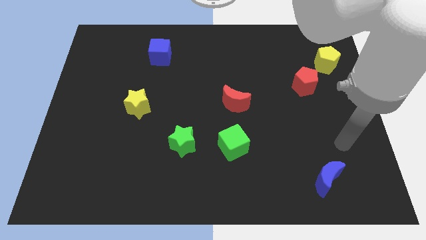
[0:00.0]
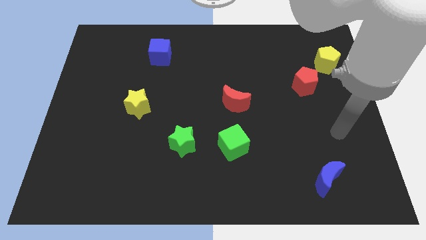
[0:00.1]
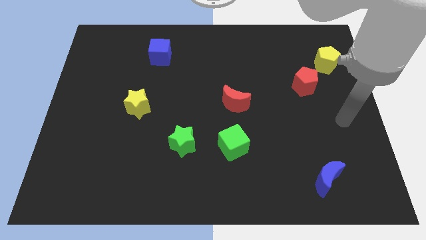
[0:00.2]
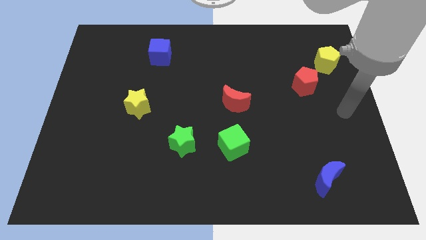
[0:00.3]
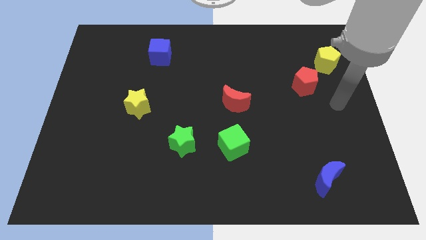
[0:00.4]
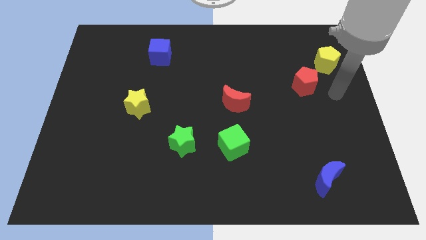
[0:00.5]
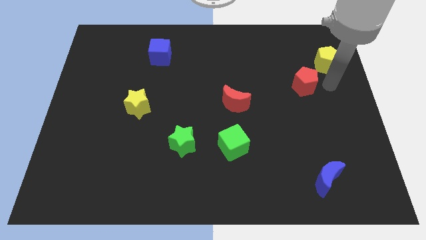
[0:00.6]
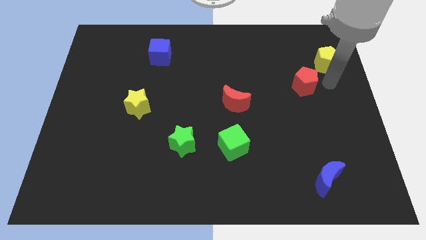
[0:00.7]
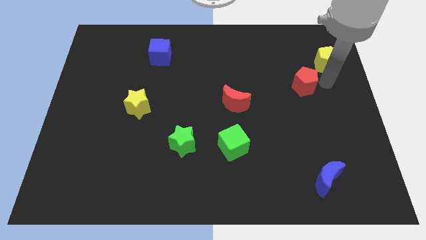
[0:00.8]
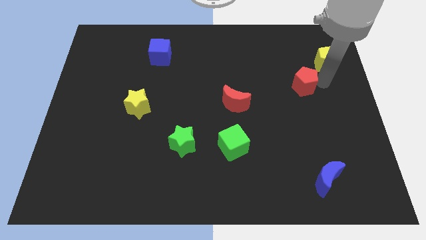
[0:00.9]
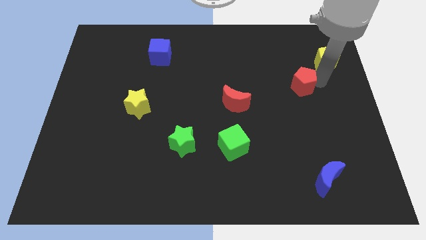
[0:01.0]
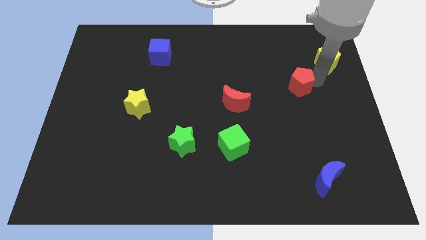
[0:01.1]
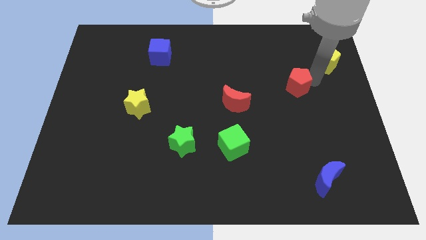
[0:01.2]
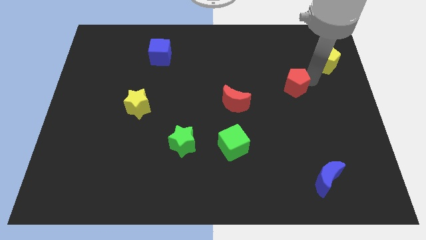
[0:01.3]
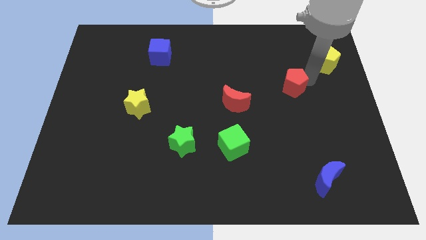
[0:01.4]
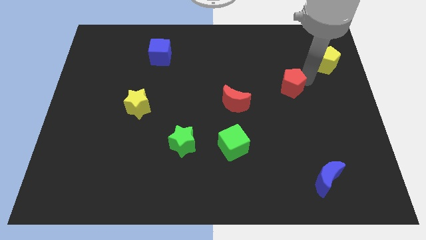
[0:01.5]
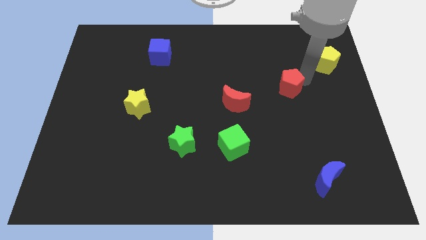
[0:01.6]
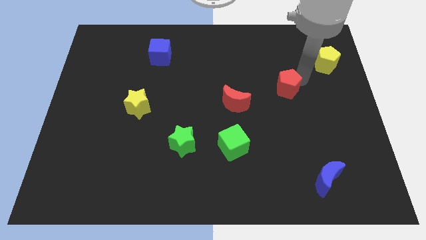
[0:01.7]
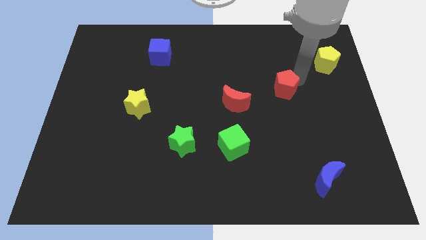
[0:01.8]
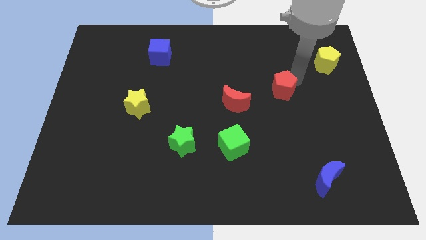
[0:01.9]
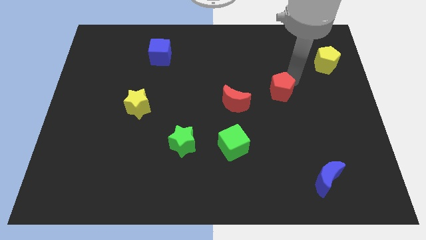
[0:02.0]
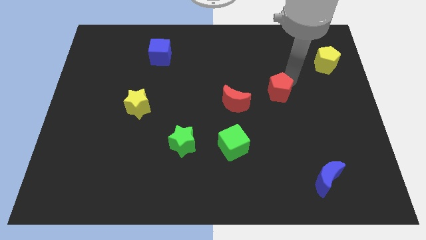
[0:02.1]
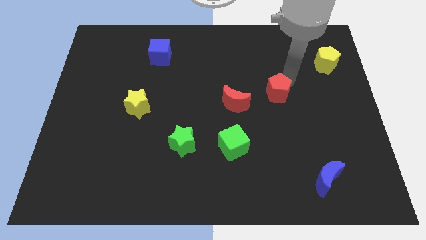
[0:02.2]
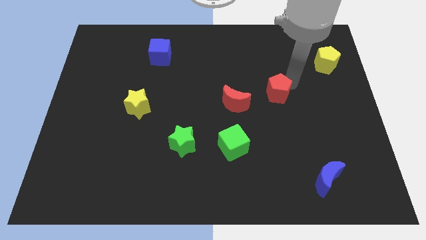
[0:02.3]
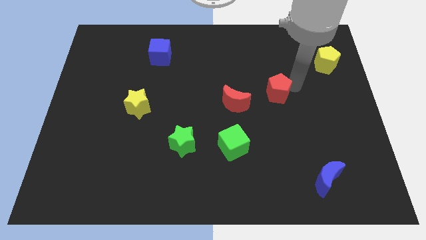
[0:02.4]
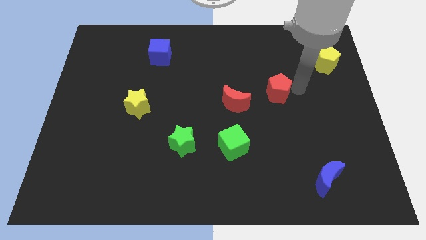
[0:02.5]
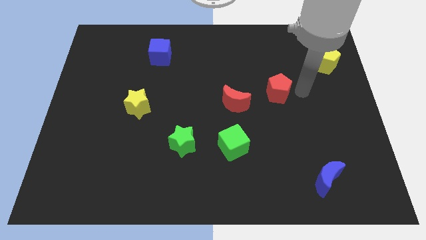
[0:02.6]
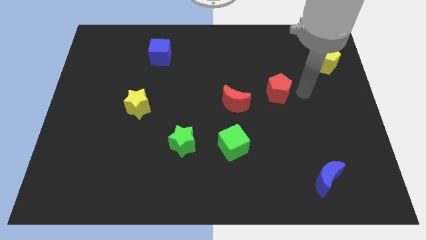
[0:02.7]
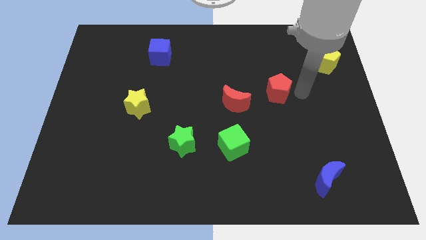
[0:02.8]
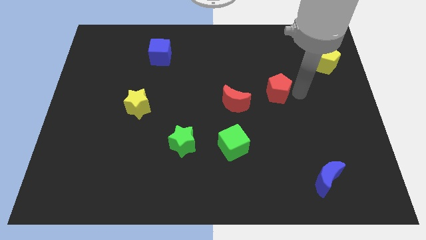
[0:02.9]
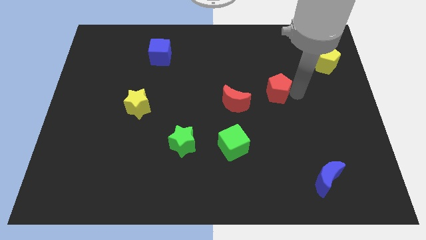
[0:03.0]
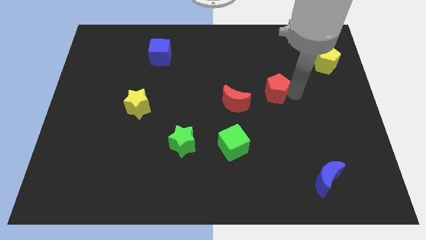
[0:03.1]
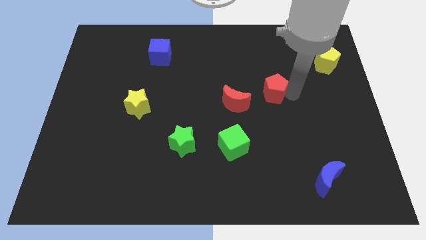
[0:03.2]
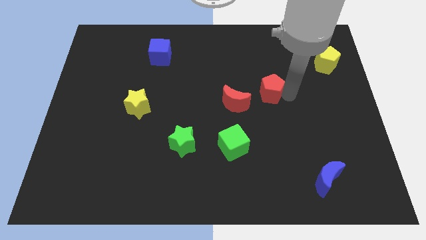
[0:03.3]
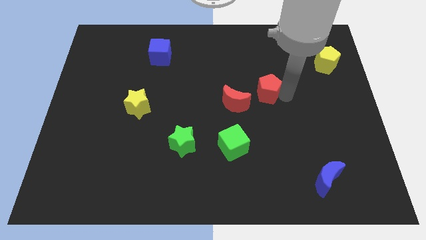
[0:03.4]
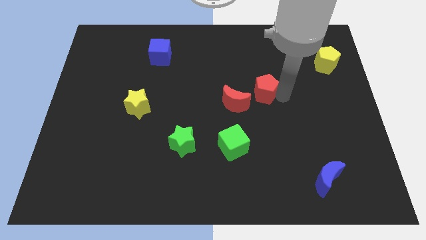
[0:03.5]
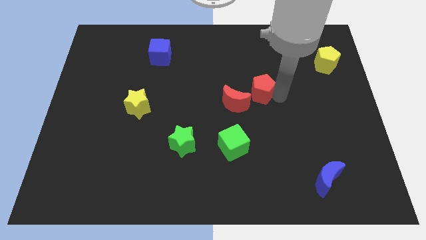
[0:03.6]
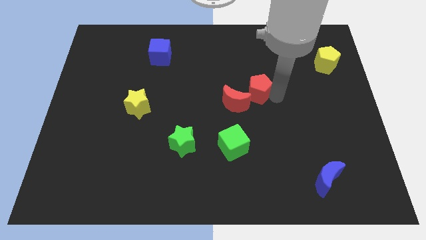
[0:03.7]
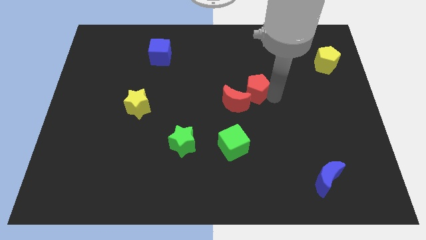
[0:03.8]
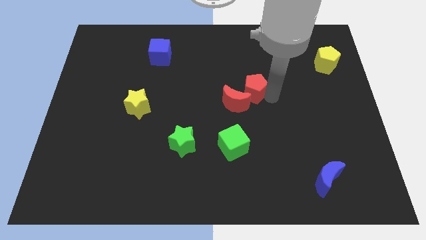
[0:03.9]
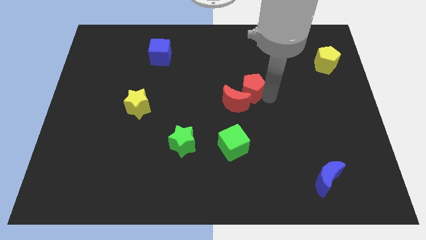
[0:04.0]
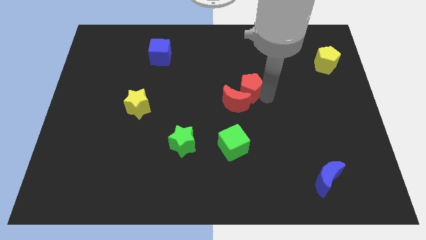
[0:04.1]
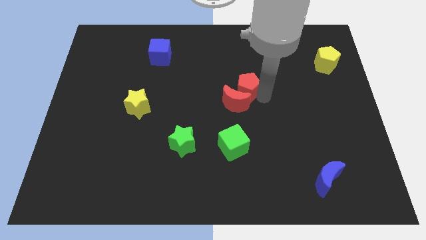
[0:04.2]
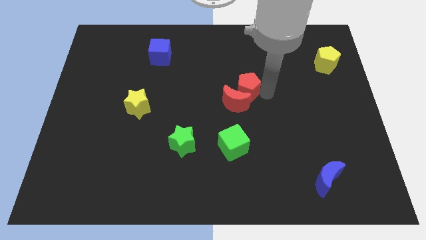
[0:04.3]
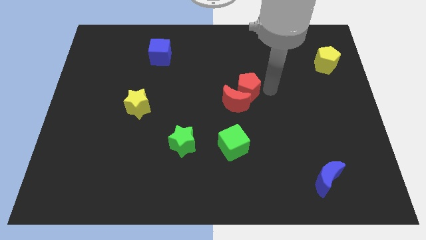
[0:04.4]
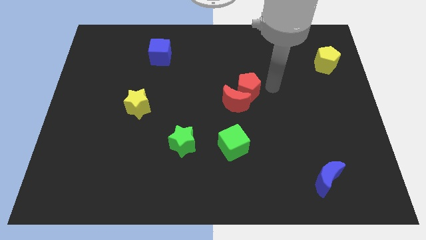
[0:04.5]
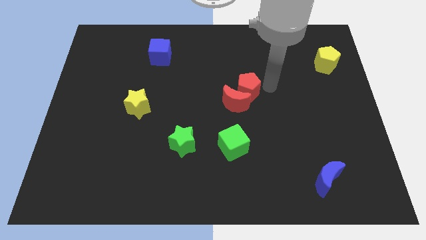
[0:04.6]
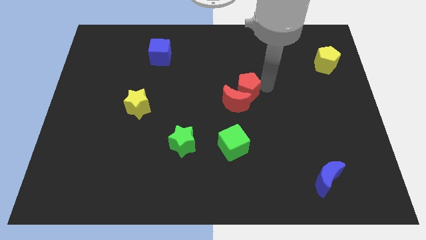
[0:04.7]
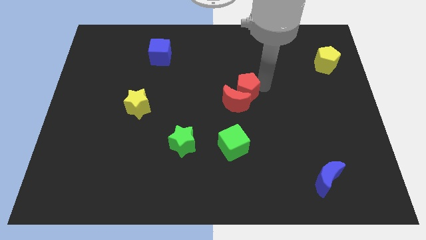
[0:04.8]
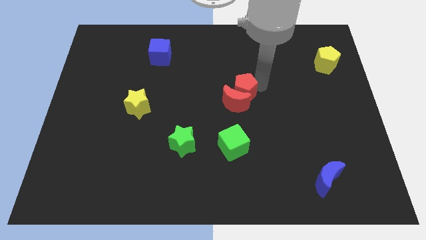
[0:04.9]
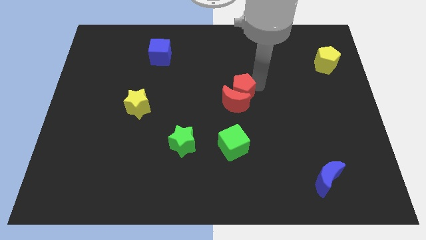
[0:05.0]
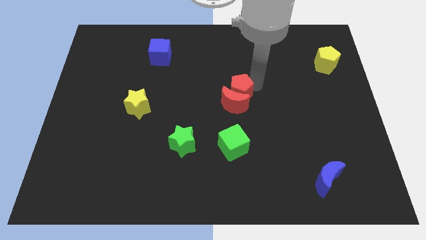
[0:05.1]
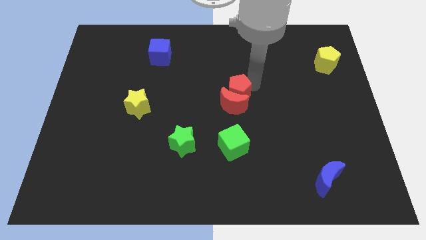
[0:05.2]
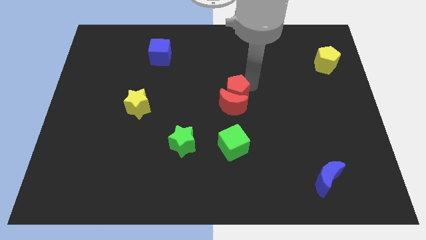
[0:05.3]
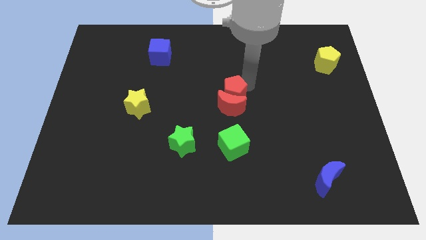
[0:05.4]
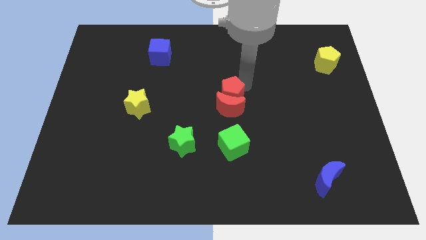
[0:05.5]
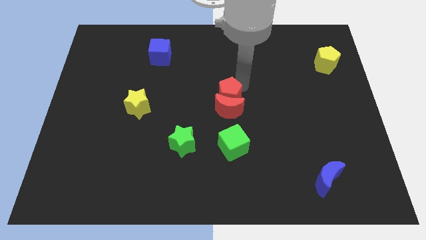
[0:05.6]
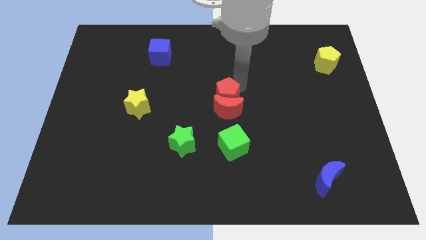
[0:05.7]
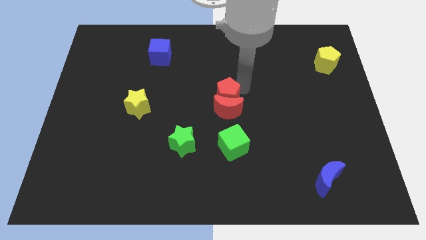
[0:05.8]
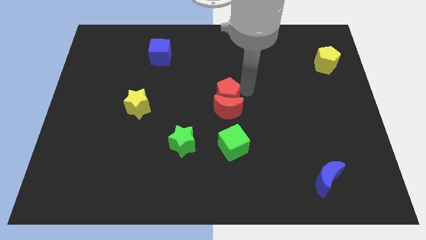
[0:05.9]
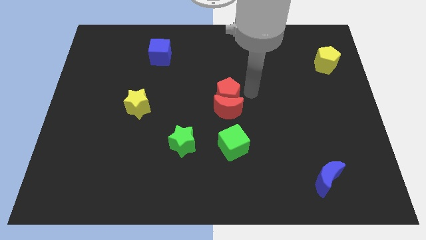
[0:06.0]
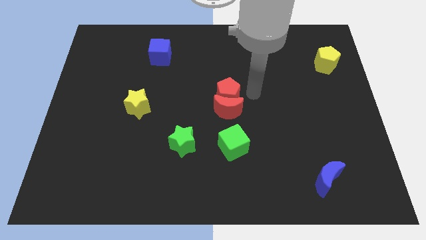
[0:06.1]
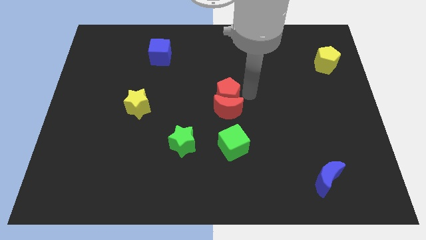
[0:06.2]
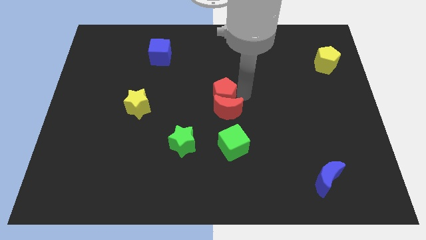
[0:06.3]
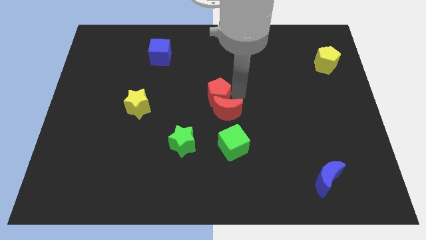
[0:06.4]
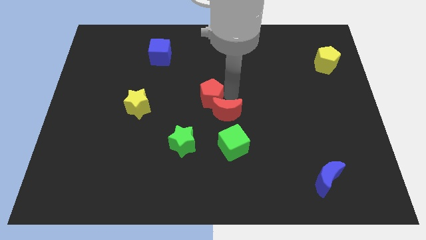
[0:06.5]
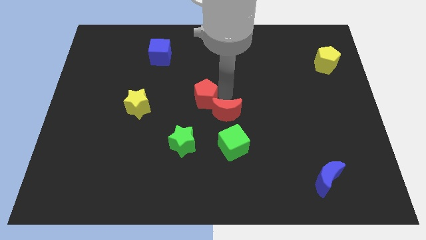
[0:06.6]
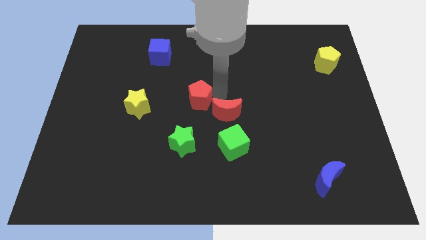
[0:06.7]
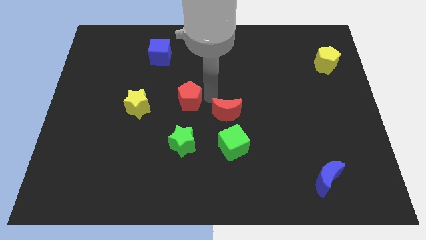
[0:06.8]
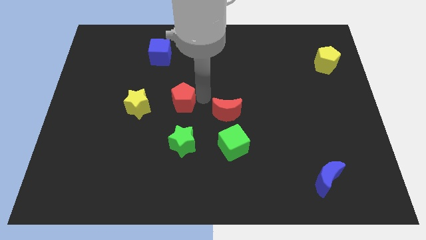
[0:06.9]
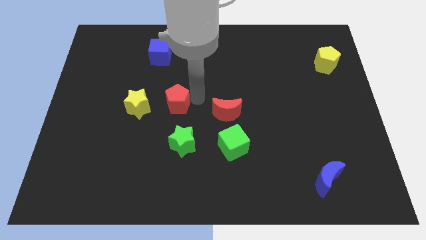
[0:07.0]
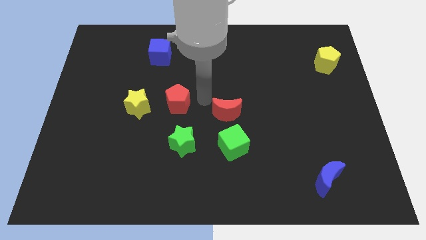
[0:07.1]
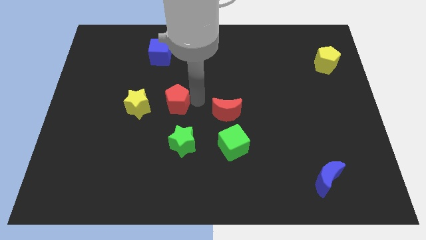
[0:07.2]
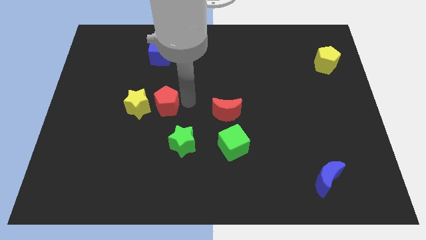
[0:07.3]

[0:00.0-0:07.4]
move the red pentagon next to the yellow star
